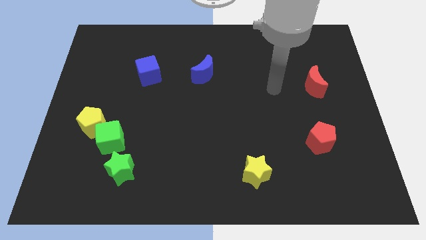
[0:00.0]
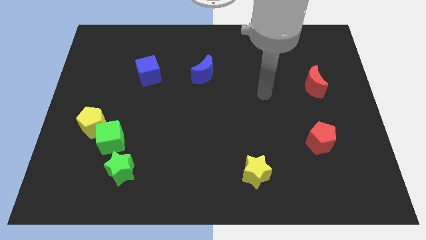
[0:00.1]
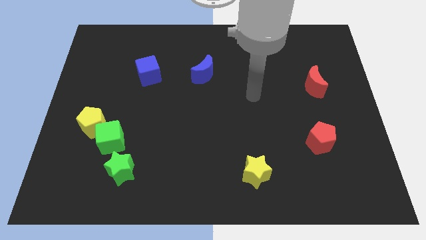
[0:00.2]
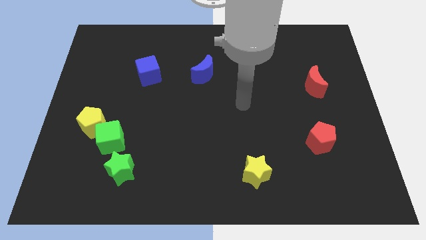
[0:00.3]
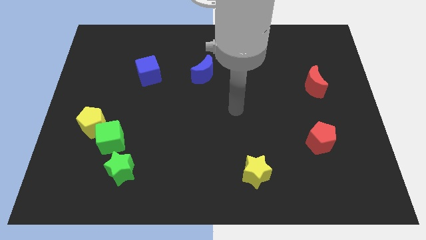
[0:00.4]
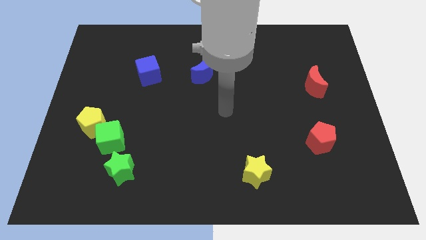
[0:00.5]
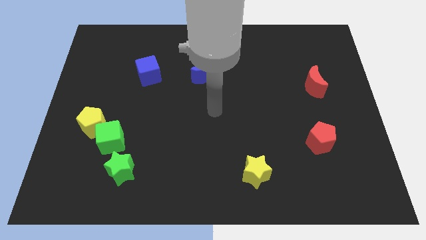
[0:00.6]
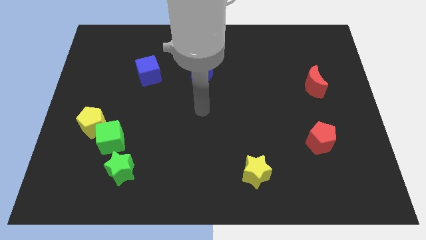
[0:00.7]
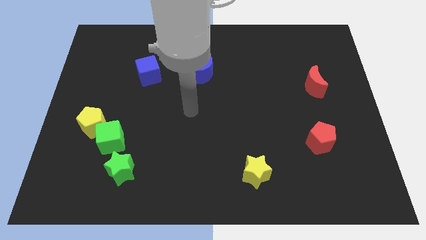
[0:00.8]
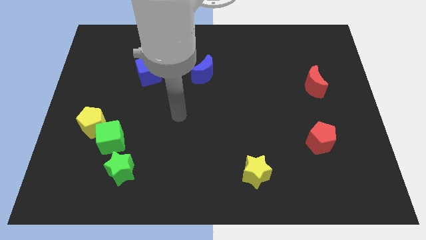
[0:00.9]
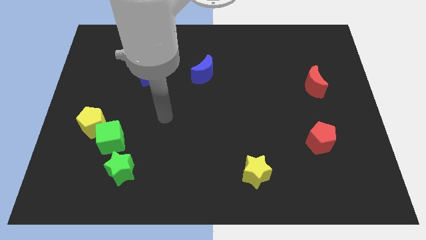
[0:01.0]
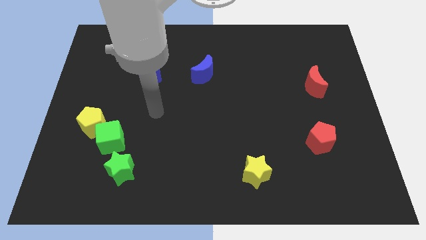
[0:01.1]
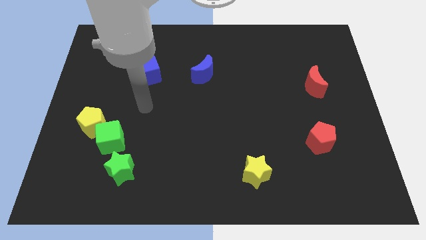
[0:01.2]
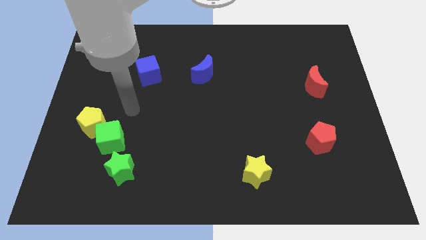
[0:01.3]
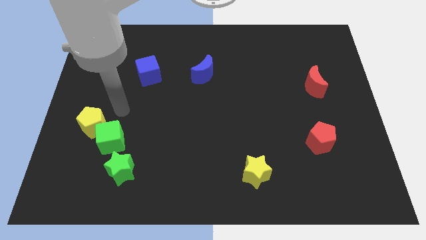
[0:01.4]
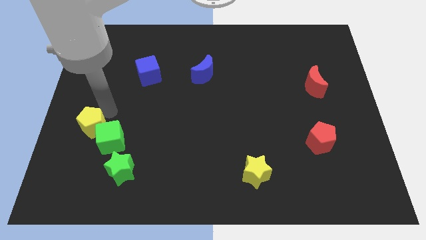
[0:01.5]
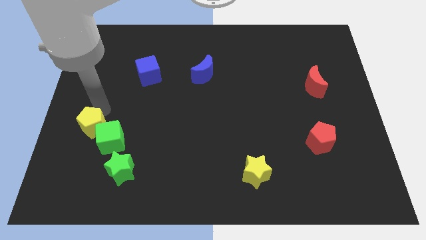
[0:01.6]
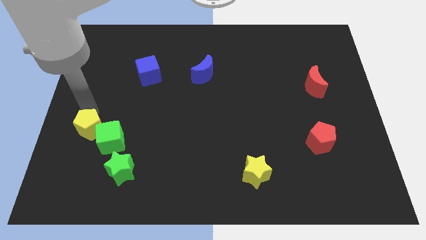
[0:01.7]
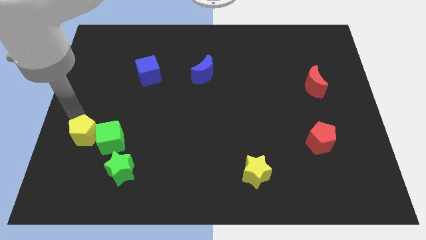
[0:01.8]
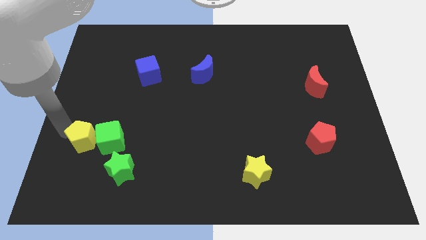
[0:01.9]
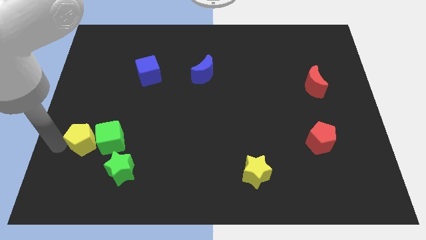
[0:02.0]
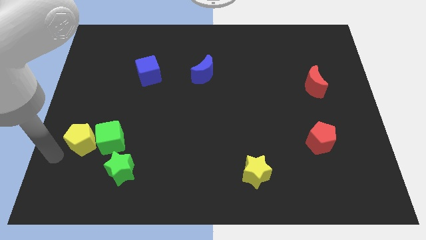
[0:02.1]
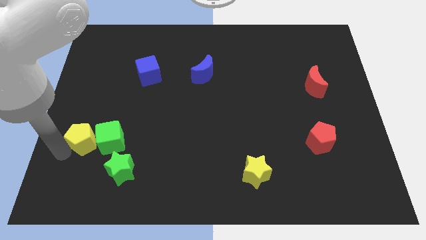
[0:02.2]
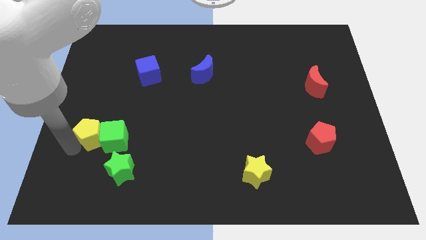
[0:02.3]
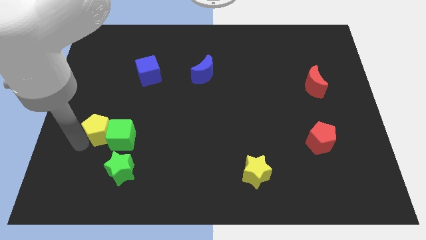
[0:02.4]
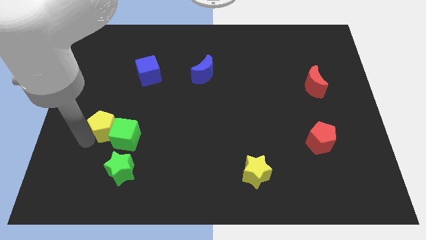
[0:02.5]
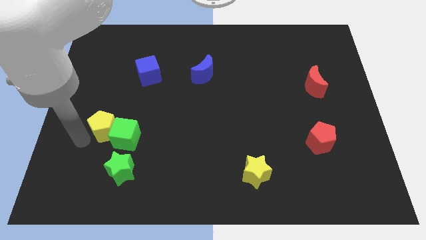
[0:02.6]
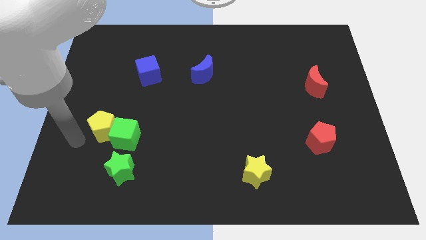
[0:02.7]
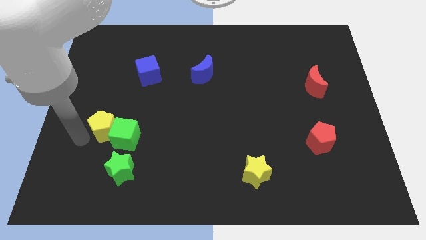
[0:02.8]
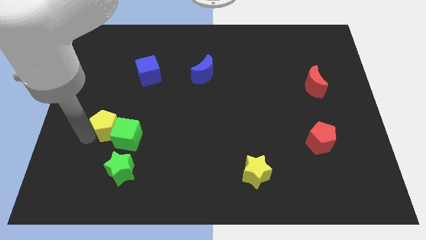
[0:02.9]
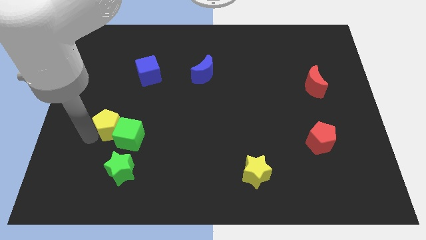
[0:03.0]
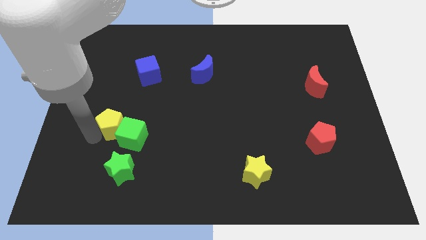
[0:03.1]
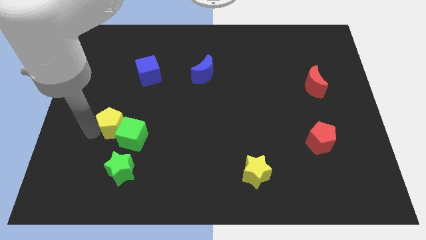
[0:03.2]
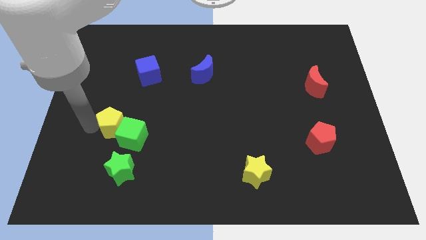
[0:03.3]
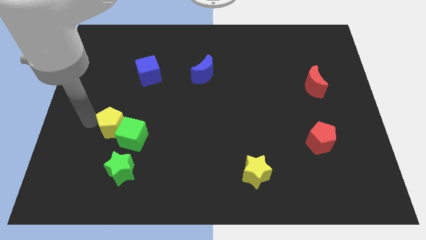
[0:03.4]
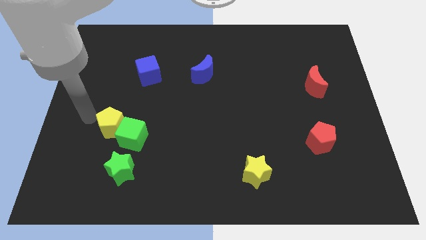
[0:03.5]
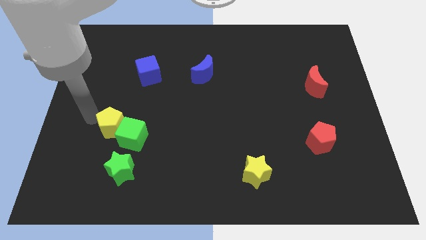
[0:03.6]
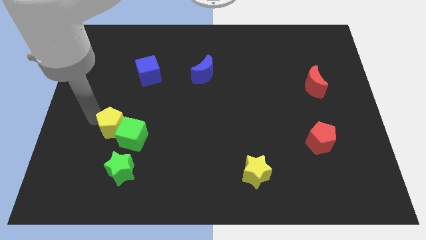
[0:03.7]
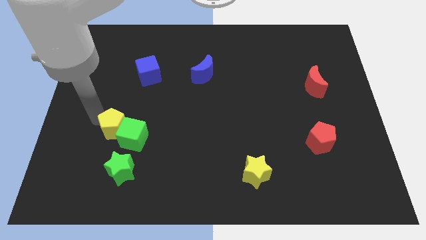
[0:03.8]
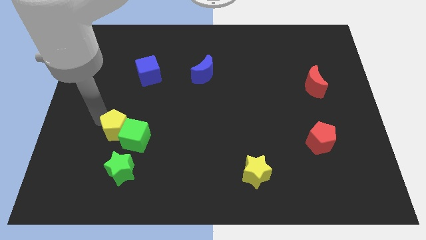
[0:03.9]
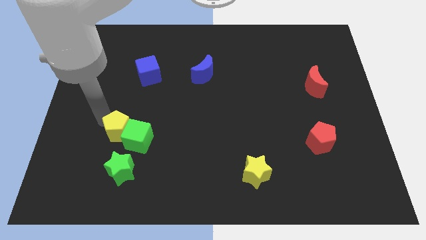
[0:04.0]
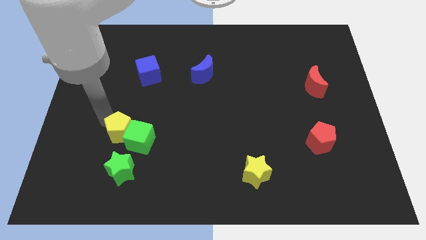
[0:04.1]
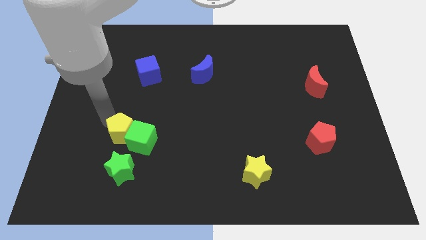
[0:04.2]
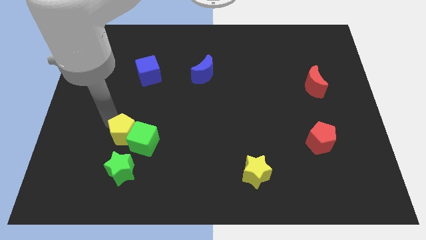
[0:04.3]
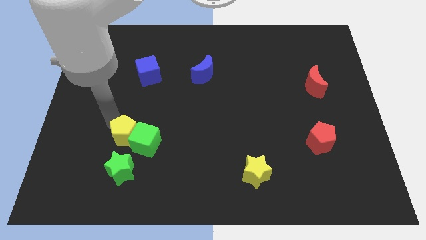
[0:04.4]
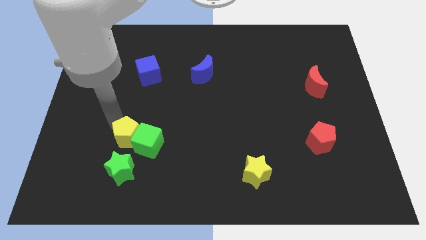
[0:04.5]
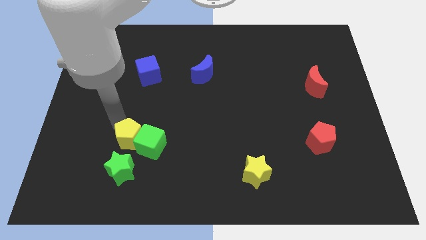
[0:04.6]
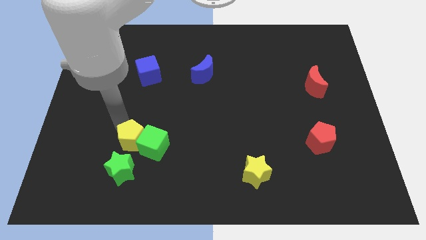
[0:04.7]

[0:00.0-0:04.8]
slide the yellow pentagon to the top right side of the green star

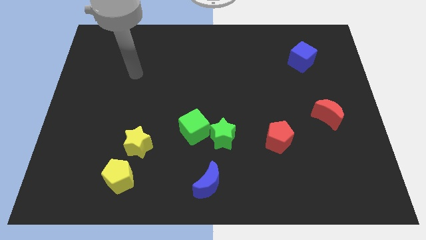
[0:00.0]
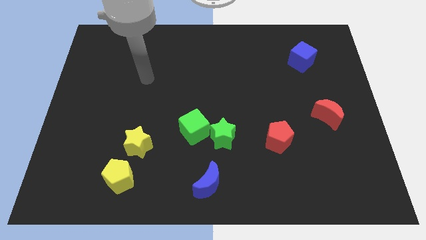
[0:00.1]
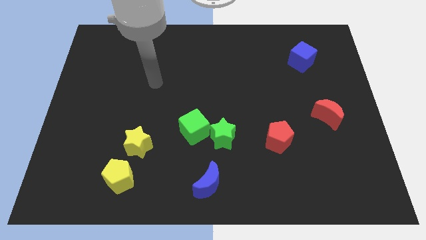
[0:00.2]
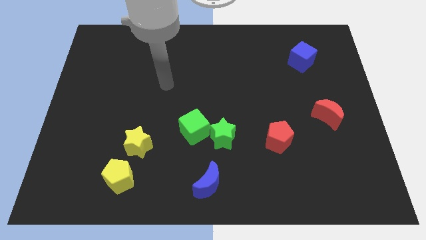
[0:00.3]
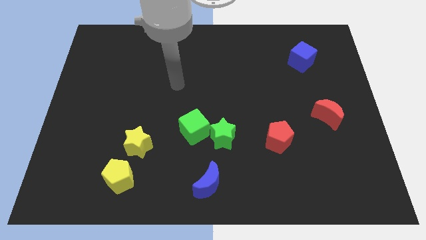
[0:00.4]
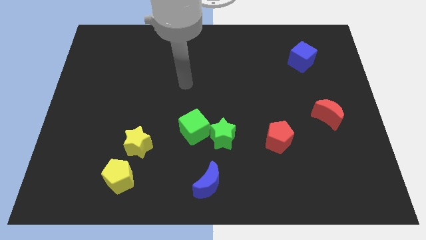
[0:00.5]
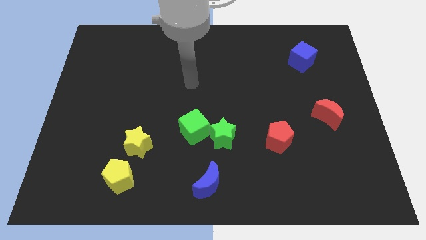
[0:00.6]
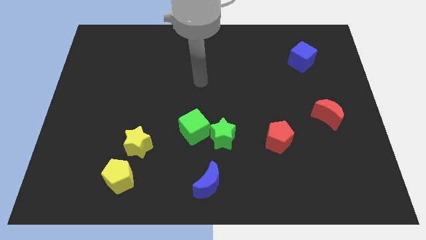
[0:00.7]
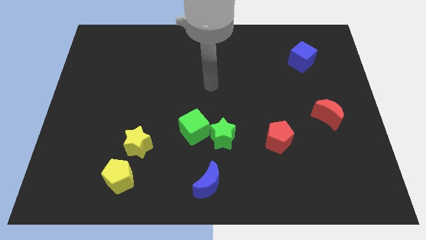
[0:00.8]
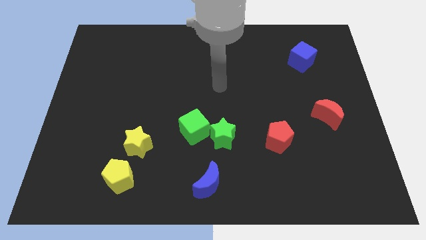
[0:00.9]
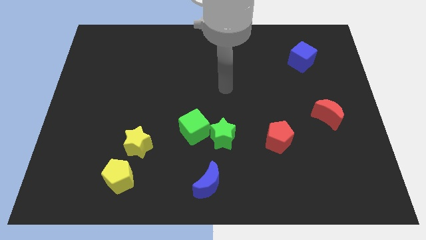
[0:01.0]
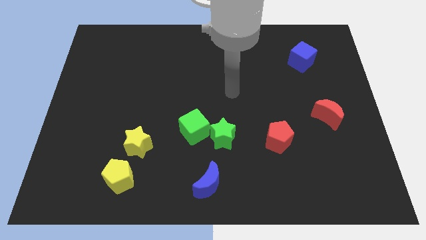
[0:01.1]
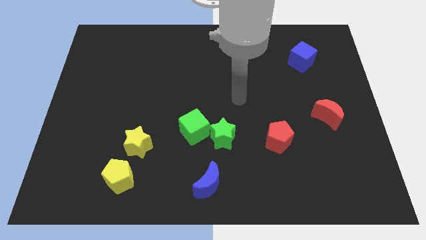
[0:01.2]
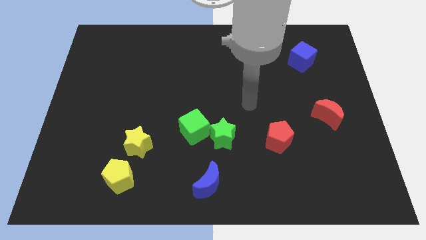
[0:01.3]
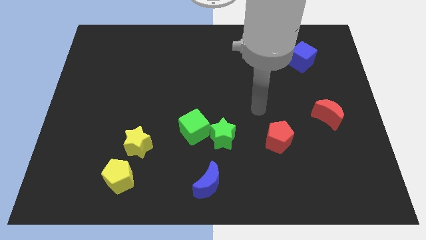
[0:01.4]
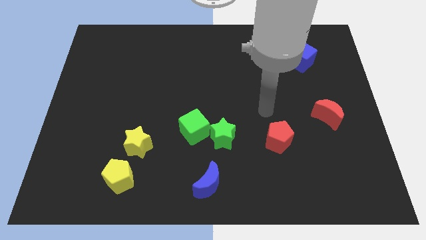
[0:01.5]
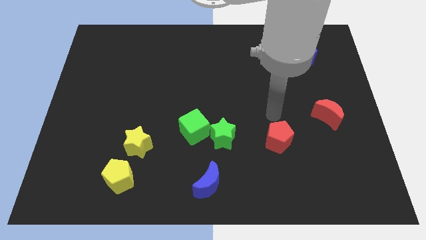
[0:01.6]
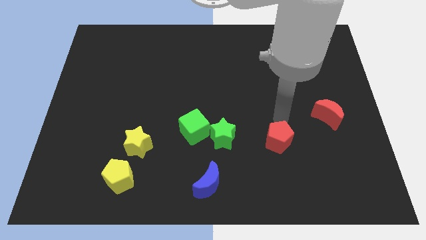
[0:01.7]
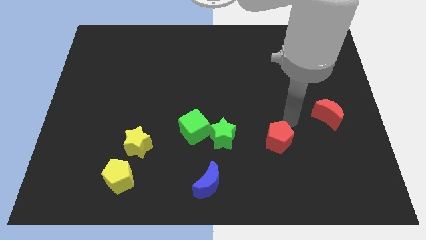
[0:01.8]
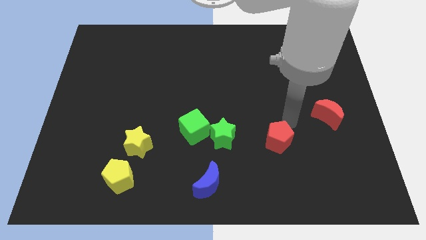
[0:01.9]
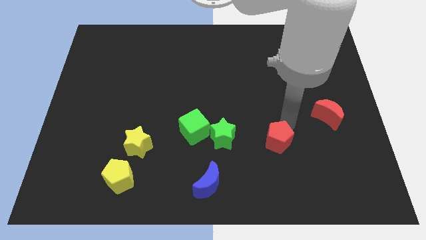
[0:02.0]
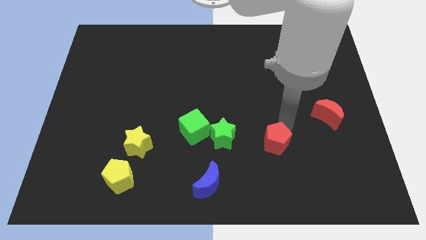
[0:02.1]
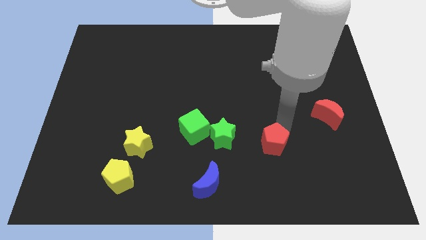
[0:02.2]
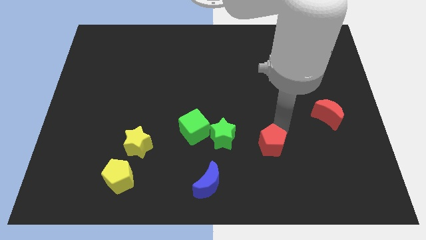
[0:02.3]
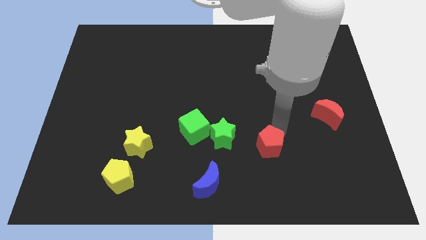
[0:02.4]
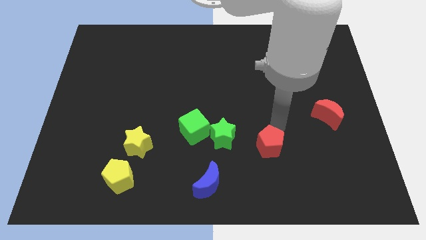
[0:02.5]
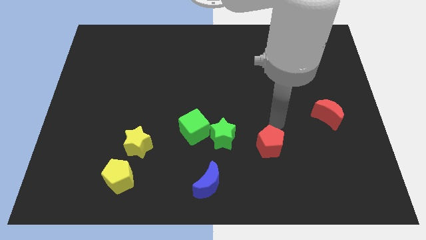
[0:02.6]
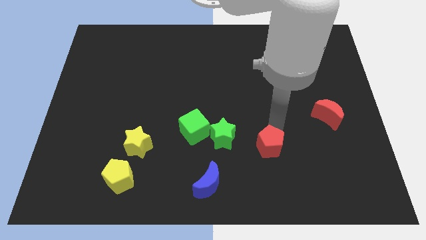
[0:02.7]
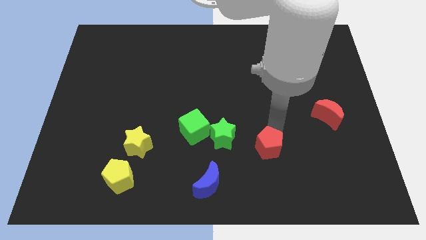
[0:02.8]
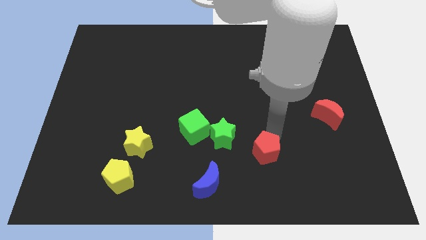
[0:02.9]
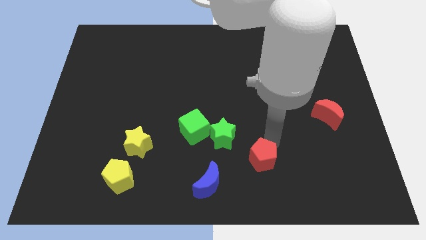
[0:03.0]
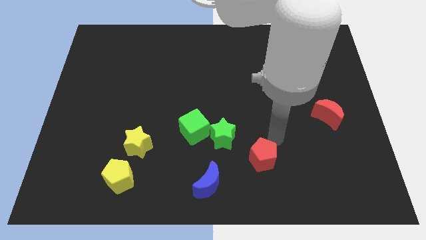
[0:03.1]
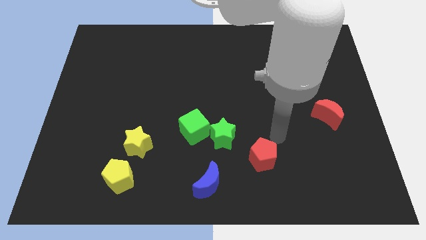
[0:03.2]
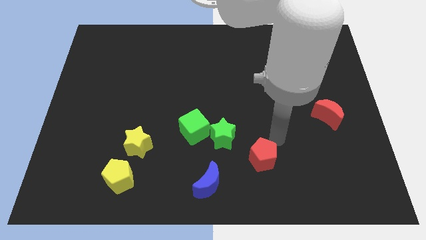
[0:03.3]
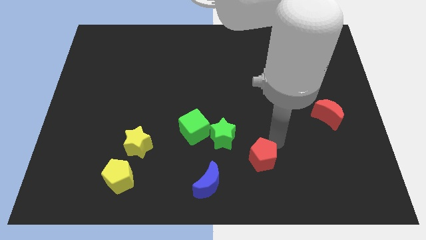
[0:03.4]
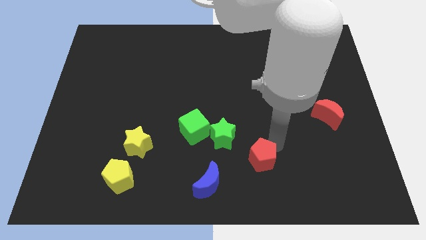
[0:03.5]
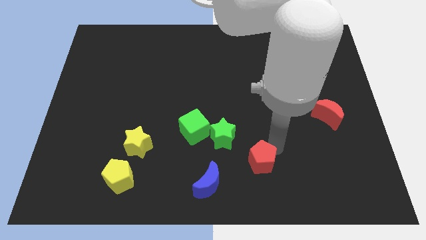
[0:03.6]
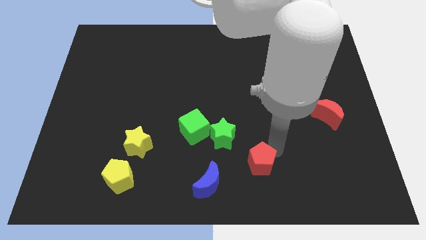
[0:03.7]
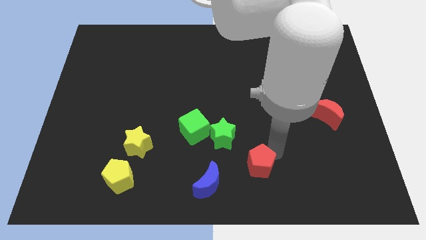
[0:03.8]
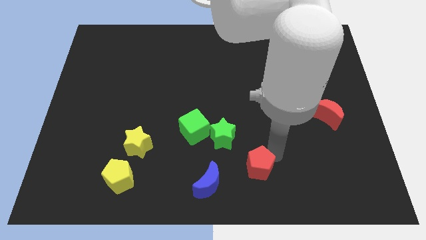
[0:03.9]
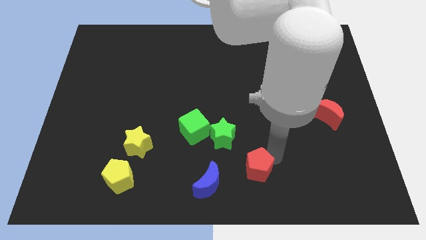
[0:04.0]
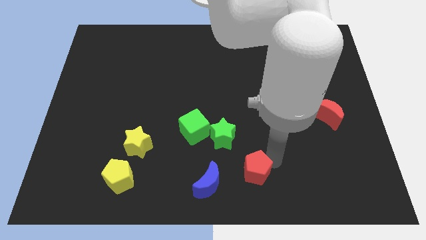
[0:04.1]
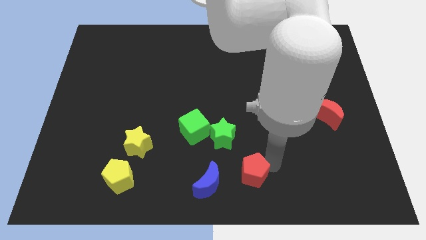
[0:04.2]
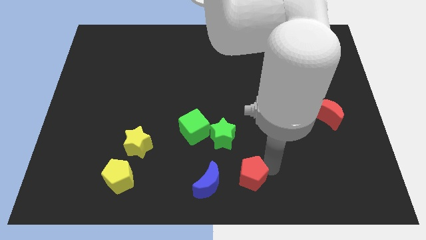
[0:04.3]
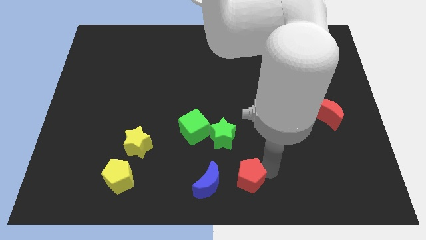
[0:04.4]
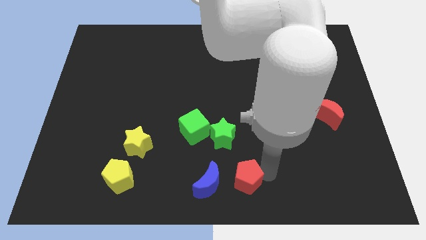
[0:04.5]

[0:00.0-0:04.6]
put the red pentagon to the bottom side of the green star
